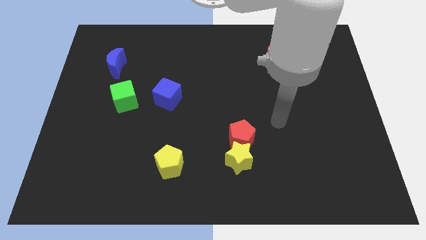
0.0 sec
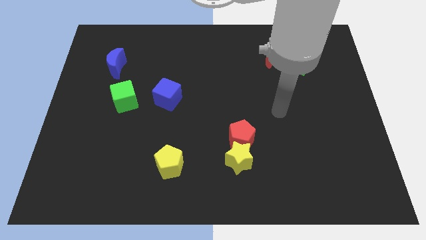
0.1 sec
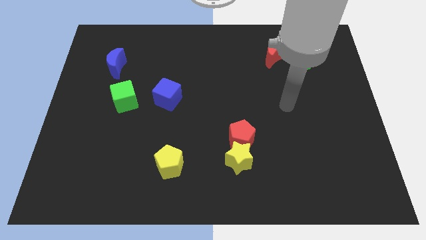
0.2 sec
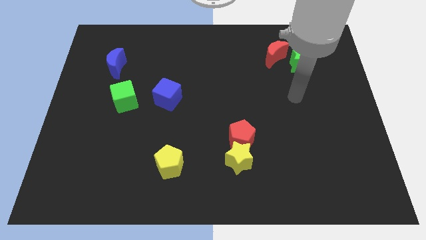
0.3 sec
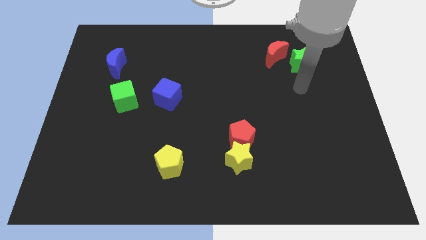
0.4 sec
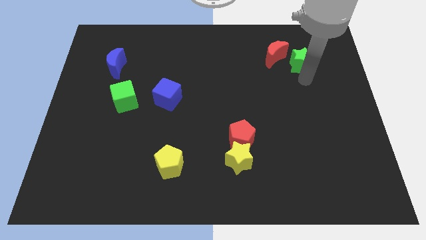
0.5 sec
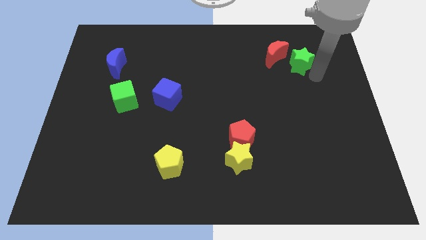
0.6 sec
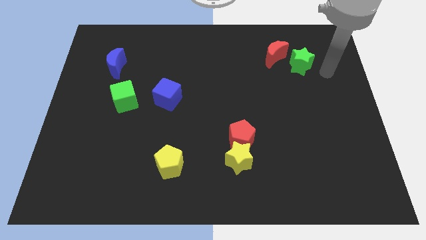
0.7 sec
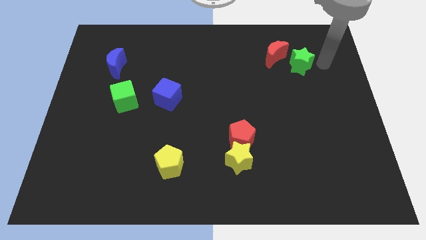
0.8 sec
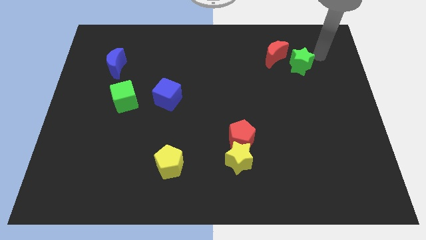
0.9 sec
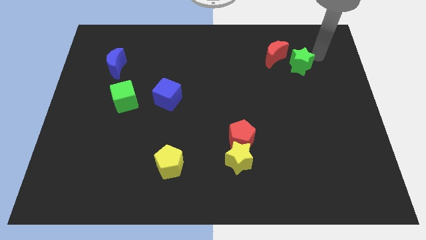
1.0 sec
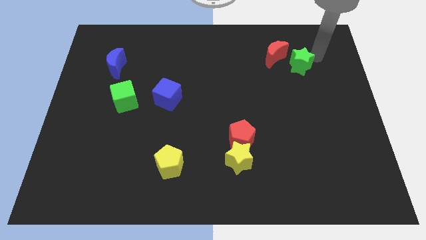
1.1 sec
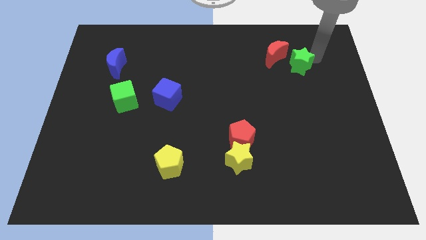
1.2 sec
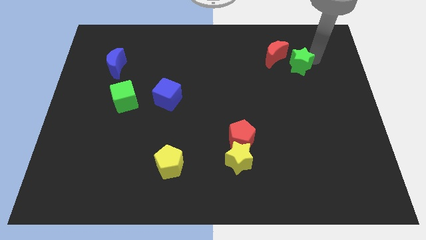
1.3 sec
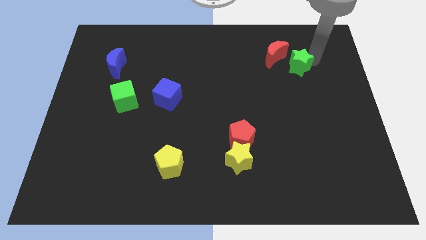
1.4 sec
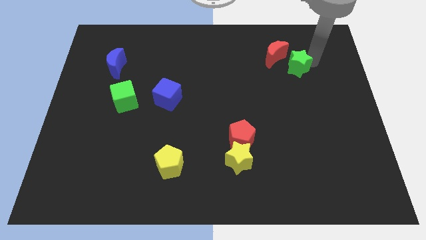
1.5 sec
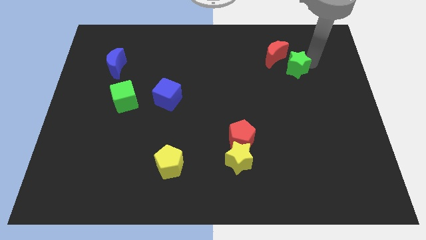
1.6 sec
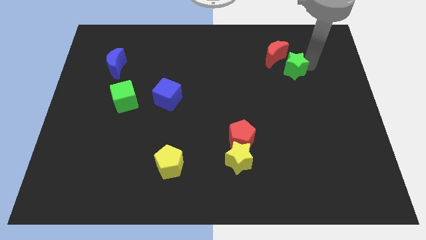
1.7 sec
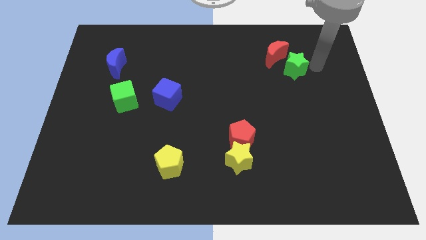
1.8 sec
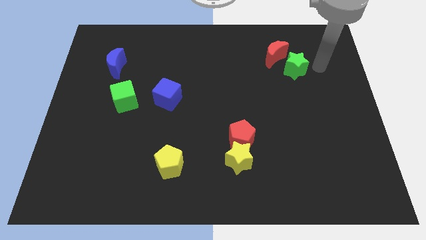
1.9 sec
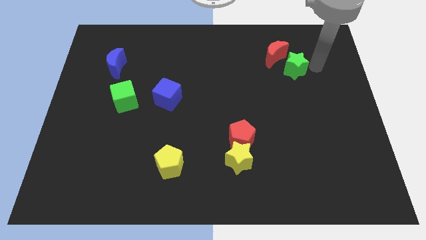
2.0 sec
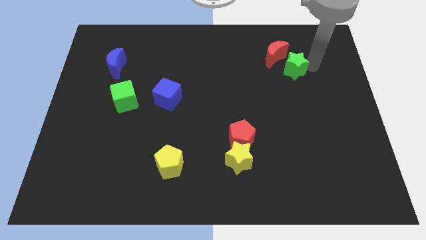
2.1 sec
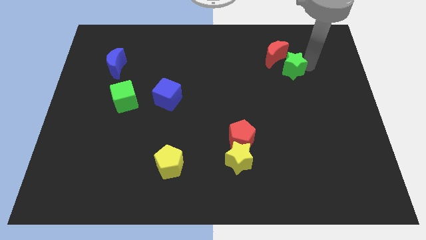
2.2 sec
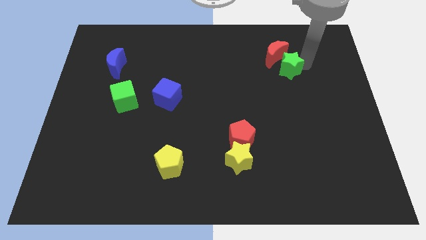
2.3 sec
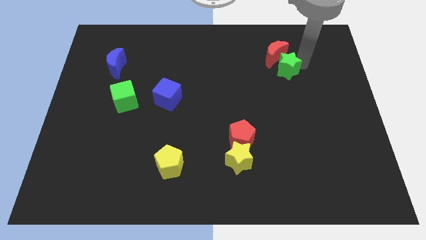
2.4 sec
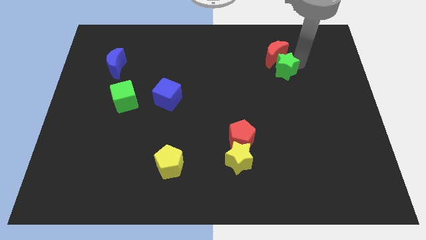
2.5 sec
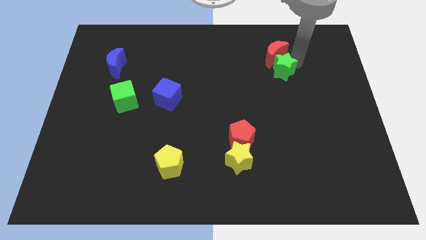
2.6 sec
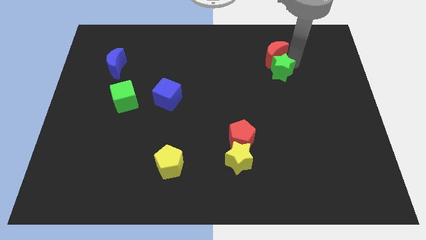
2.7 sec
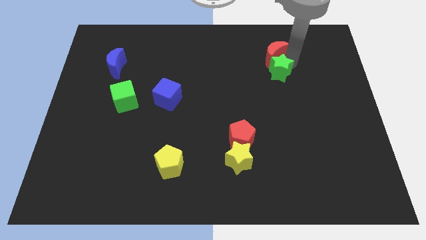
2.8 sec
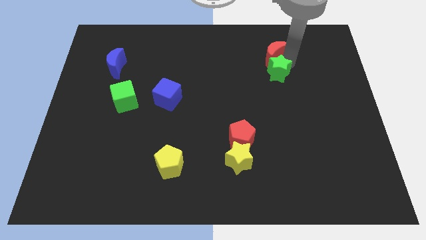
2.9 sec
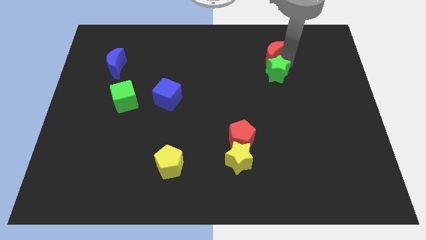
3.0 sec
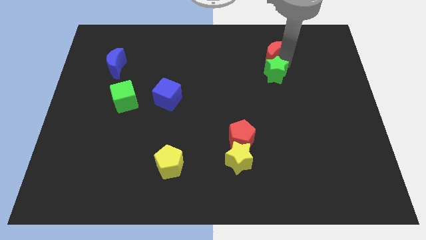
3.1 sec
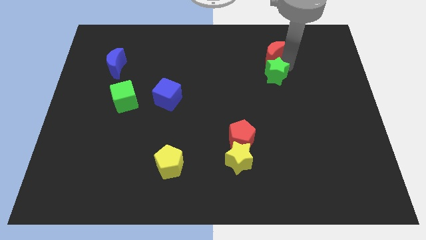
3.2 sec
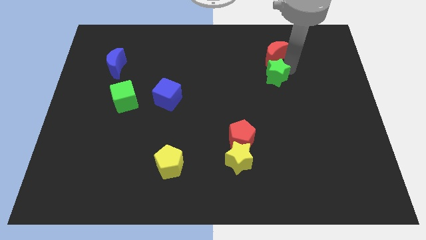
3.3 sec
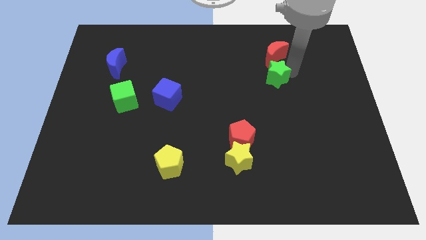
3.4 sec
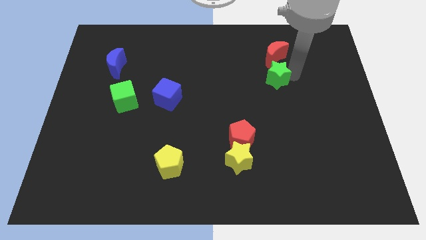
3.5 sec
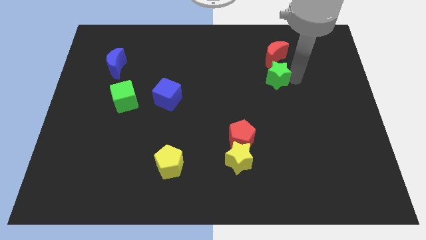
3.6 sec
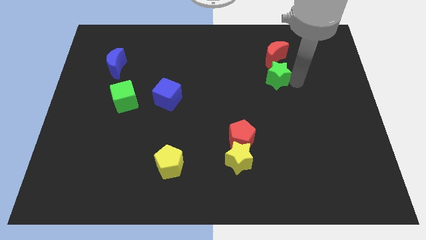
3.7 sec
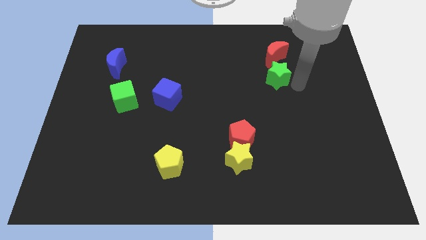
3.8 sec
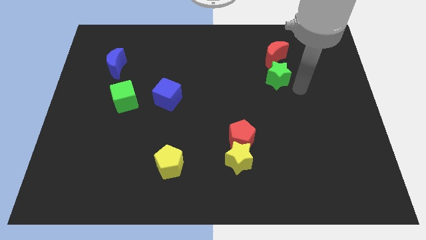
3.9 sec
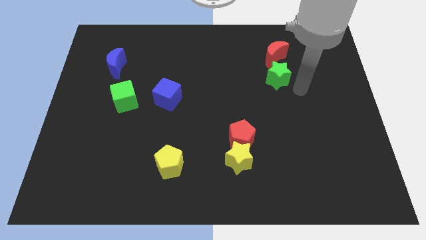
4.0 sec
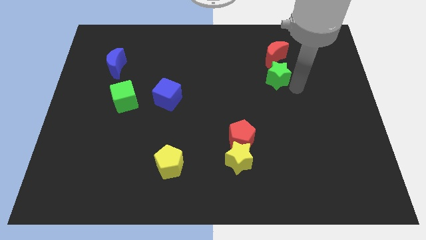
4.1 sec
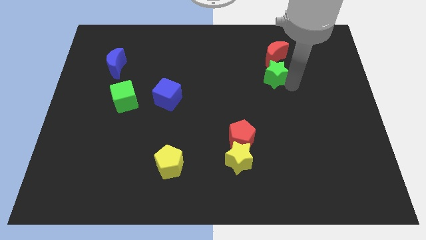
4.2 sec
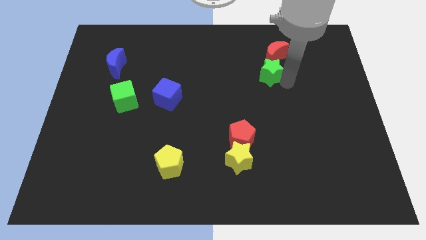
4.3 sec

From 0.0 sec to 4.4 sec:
push the green star a little bit left

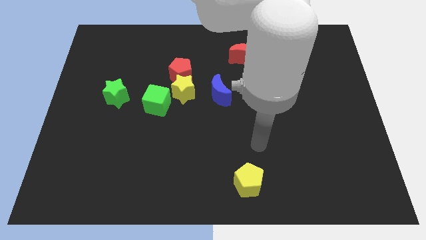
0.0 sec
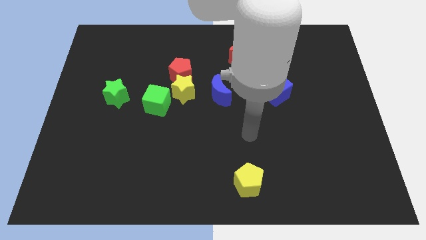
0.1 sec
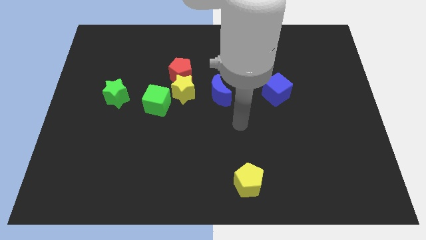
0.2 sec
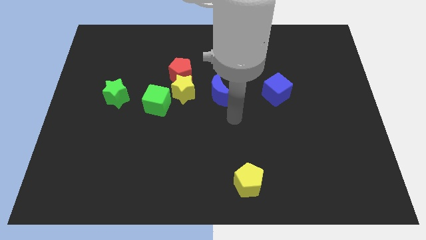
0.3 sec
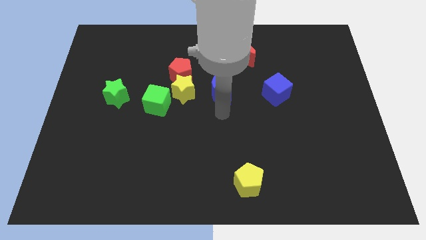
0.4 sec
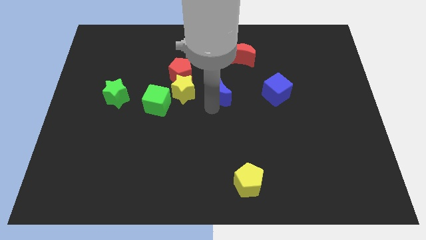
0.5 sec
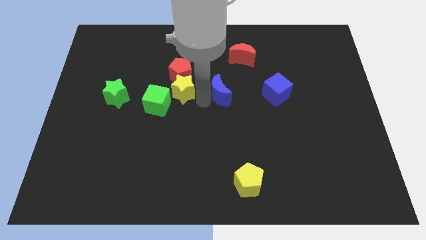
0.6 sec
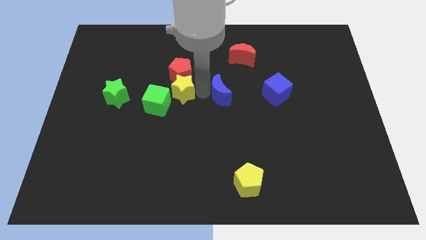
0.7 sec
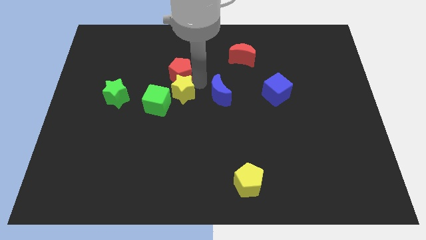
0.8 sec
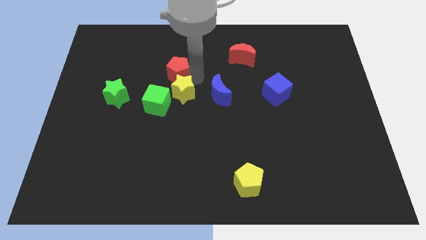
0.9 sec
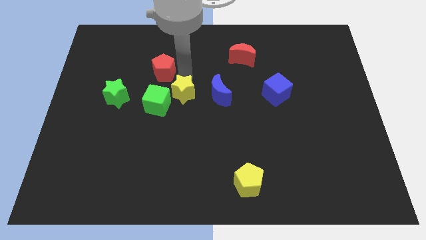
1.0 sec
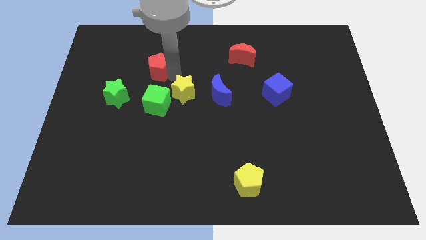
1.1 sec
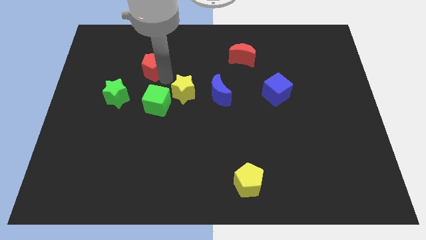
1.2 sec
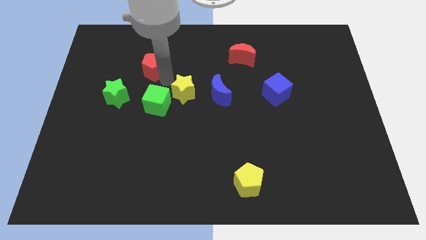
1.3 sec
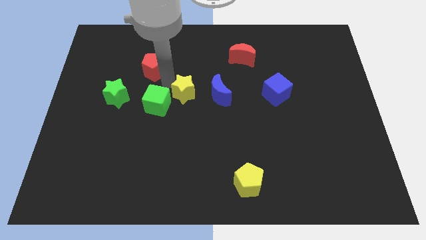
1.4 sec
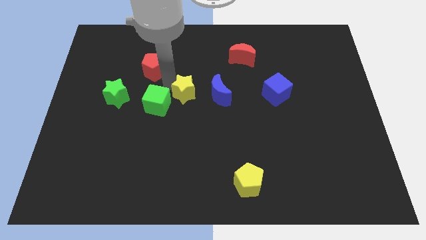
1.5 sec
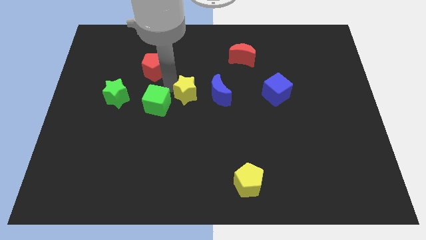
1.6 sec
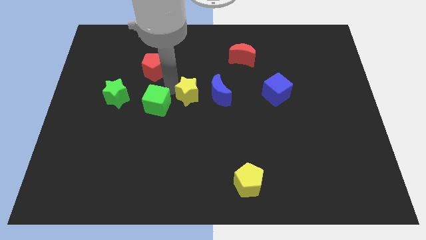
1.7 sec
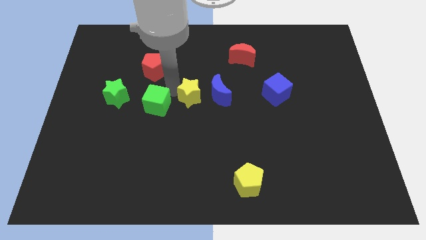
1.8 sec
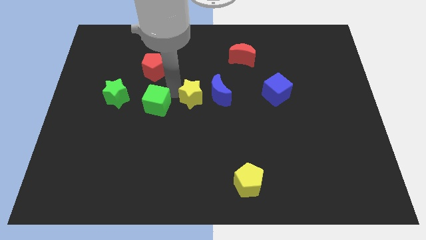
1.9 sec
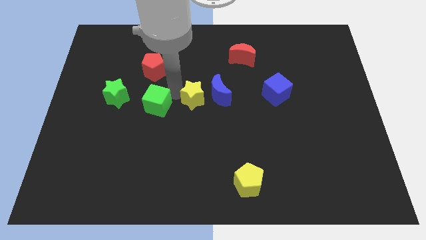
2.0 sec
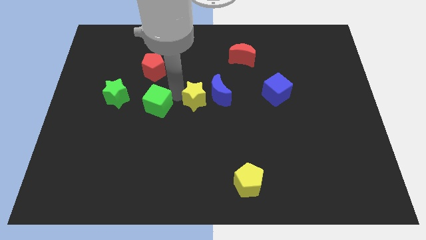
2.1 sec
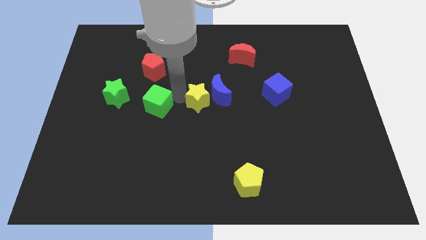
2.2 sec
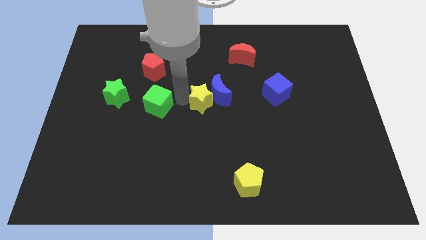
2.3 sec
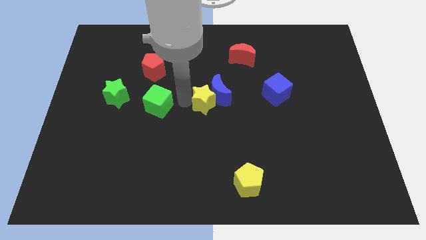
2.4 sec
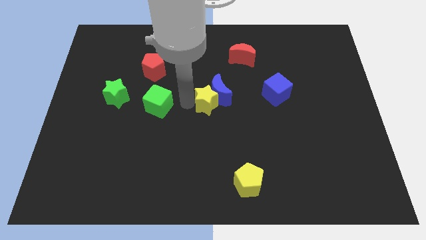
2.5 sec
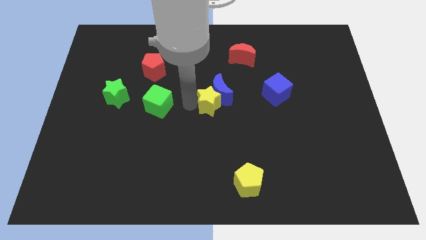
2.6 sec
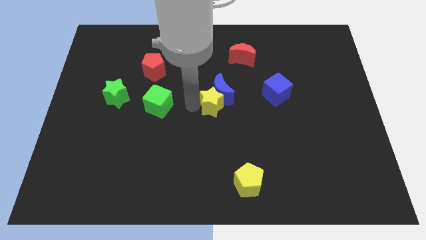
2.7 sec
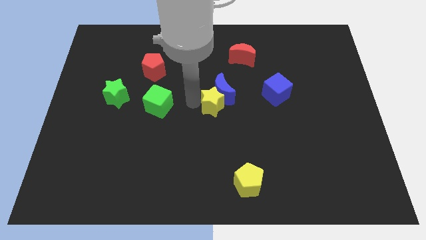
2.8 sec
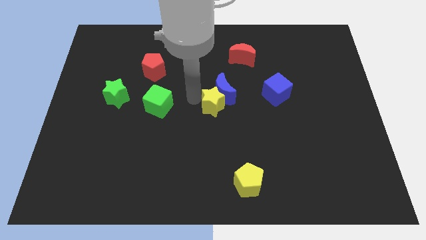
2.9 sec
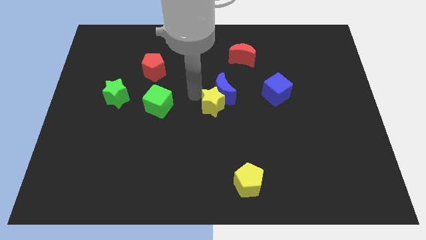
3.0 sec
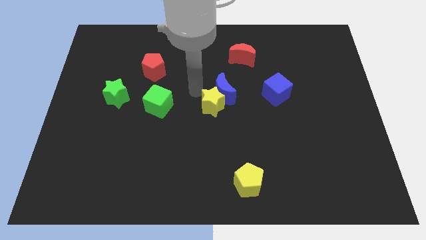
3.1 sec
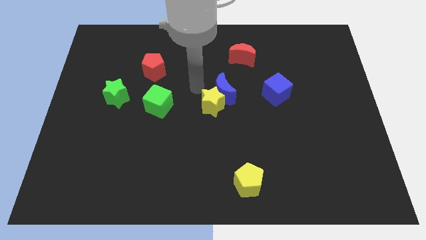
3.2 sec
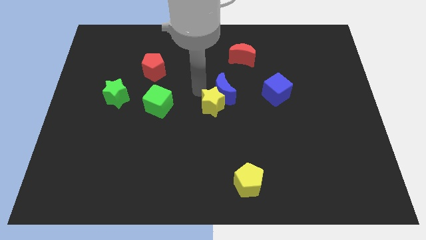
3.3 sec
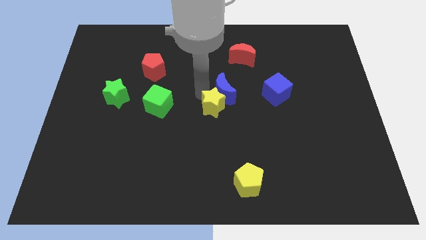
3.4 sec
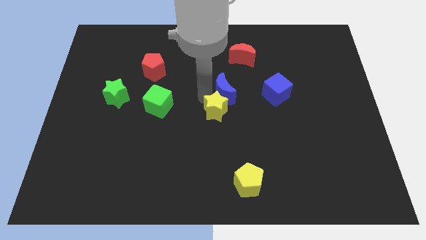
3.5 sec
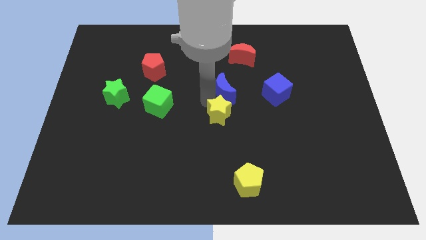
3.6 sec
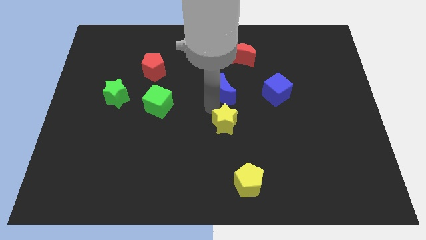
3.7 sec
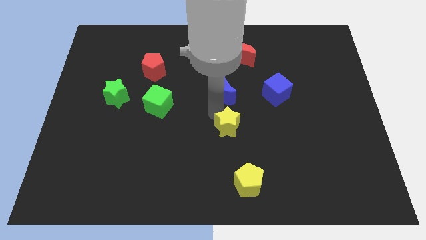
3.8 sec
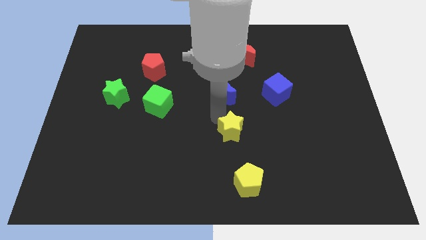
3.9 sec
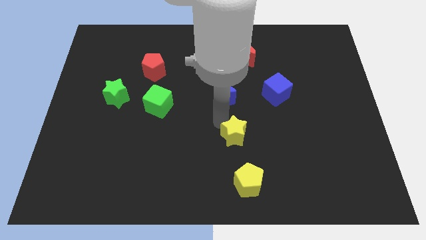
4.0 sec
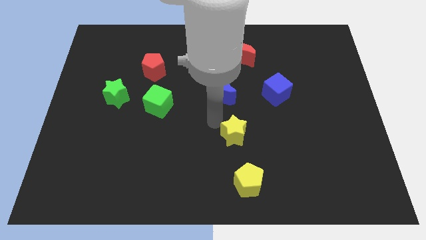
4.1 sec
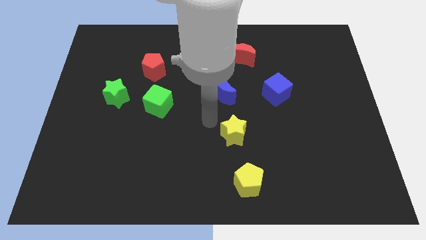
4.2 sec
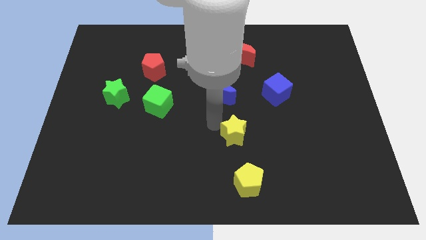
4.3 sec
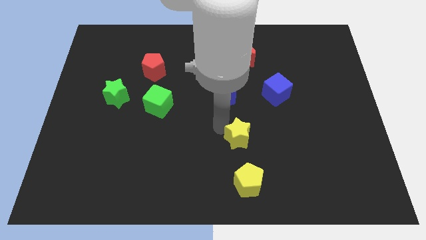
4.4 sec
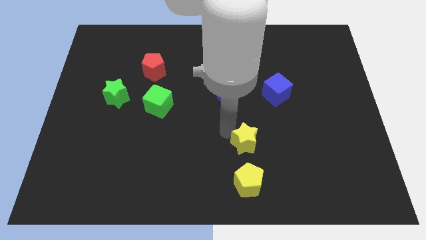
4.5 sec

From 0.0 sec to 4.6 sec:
move the yellow star downwards and to the right
